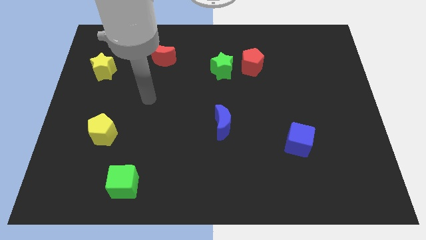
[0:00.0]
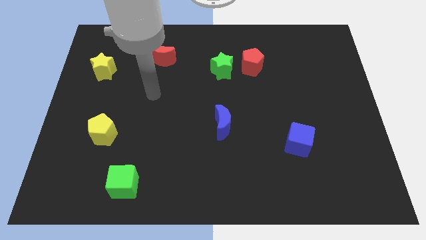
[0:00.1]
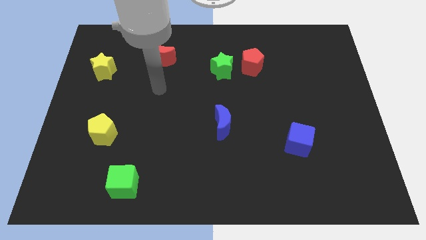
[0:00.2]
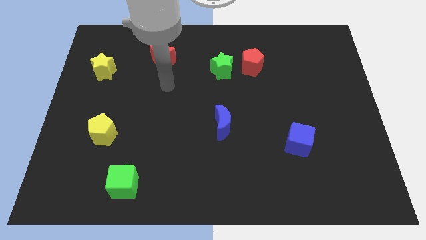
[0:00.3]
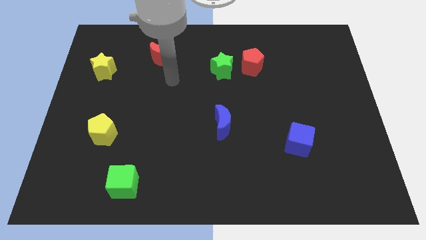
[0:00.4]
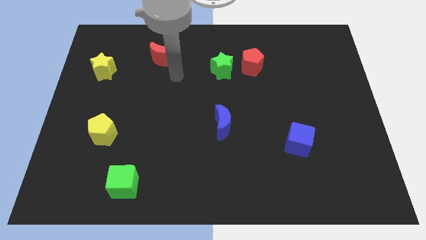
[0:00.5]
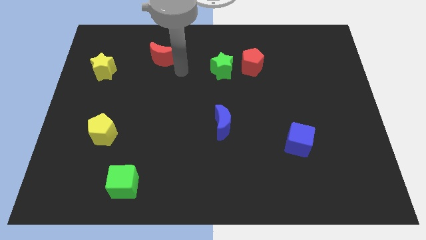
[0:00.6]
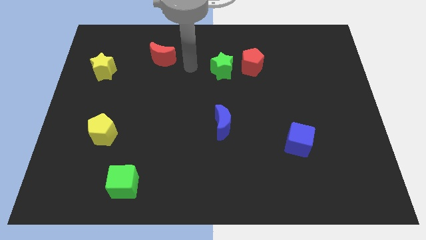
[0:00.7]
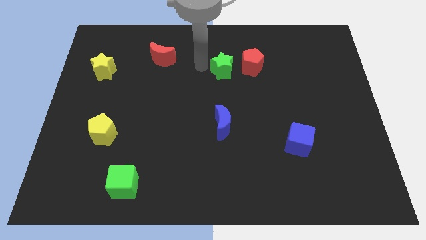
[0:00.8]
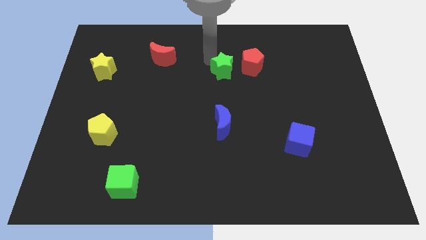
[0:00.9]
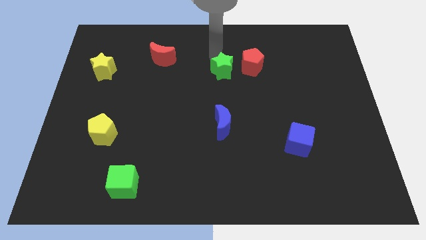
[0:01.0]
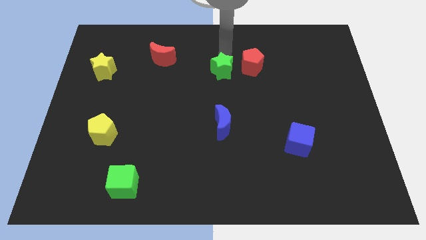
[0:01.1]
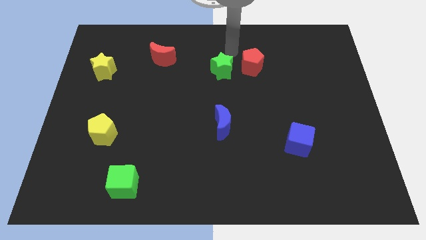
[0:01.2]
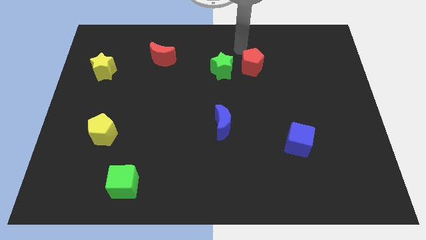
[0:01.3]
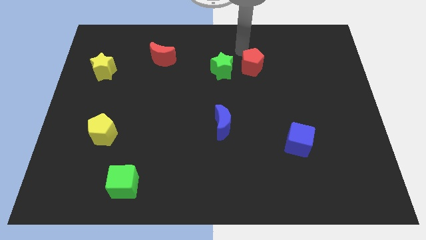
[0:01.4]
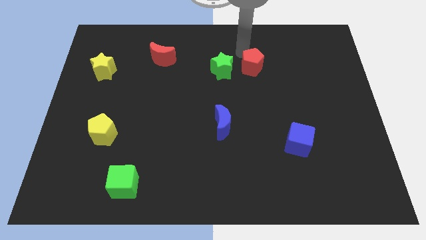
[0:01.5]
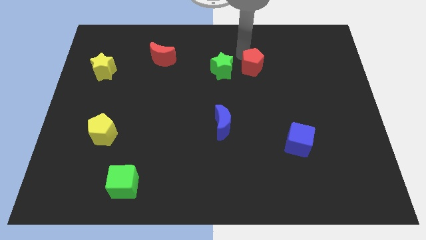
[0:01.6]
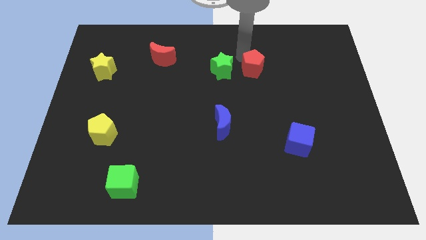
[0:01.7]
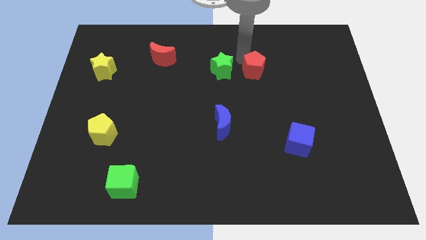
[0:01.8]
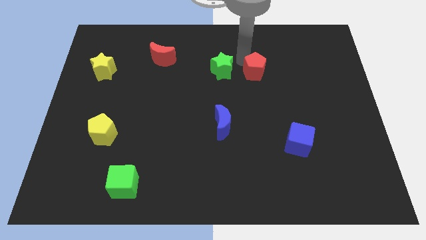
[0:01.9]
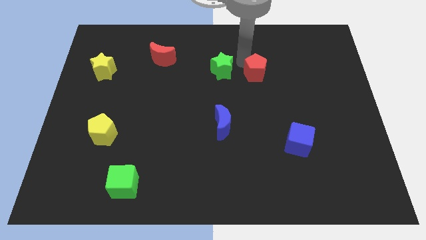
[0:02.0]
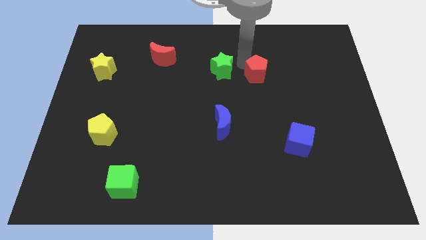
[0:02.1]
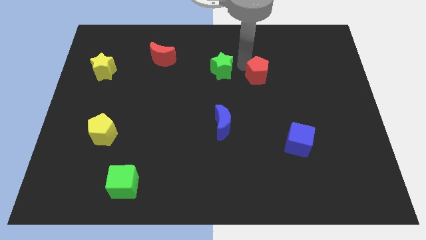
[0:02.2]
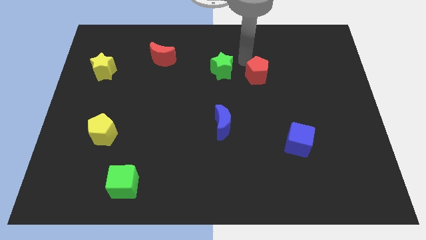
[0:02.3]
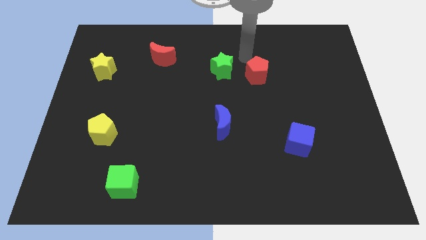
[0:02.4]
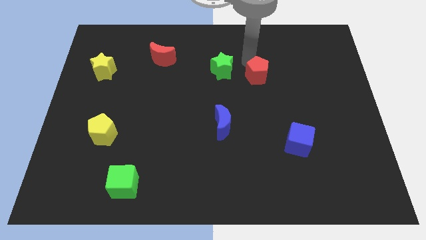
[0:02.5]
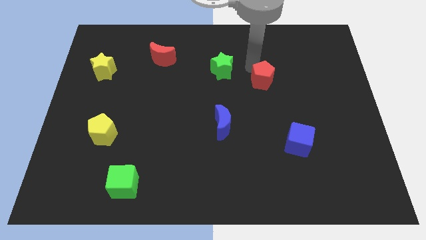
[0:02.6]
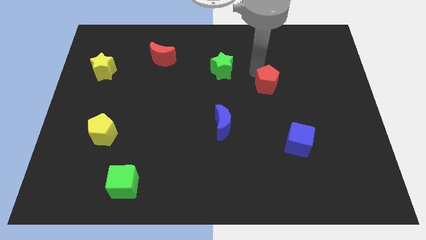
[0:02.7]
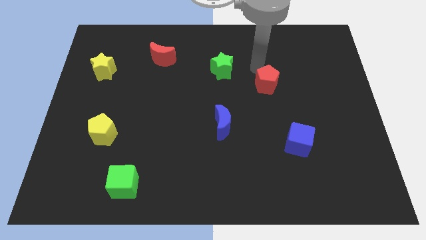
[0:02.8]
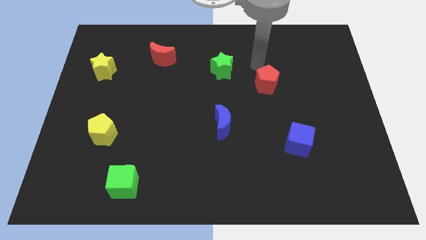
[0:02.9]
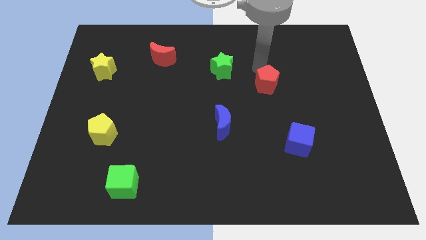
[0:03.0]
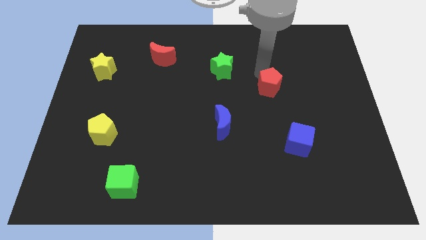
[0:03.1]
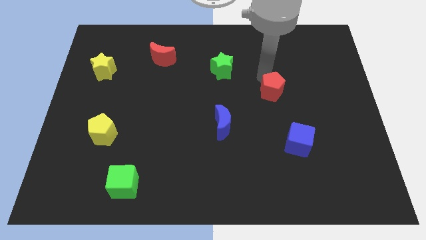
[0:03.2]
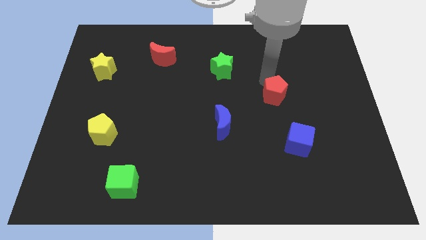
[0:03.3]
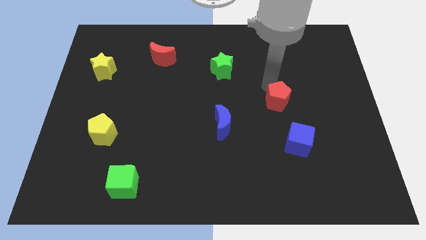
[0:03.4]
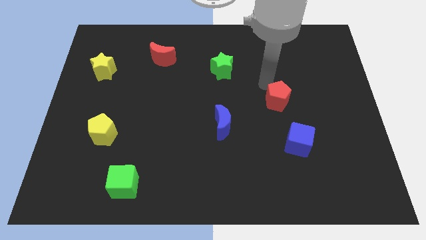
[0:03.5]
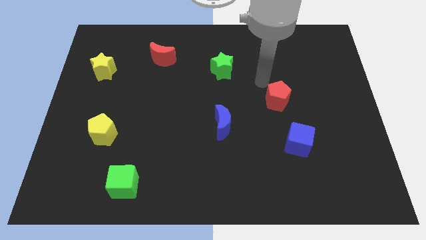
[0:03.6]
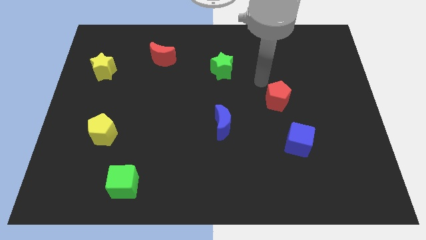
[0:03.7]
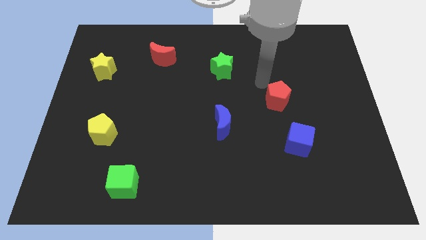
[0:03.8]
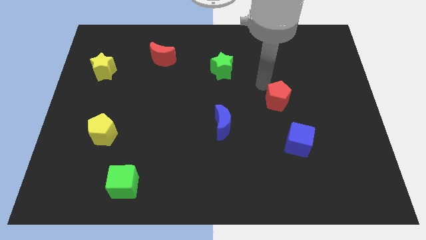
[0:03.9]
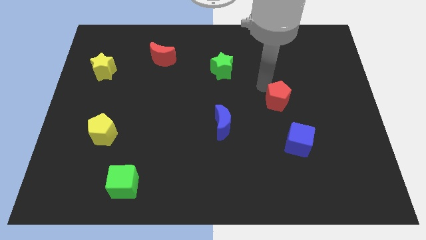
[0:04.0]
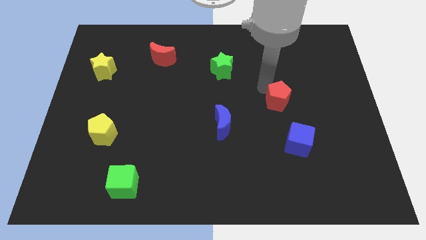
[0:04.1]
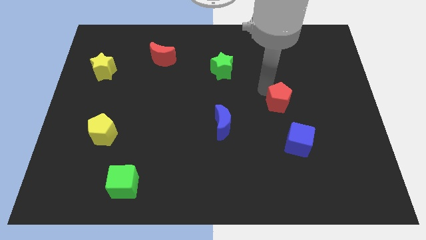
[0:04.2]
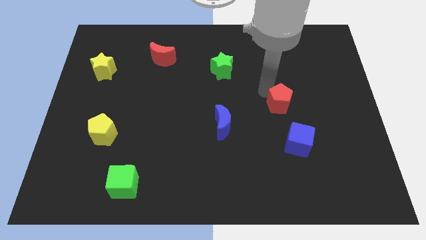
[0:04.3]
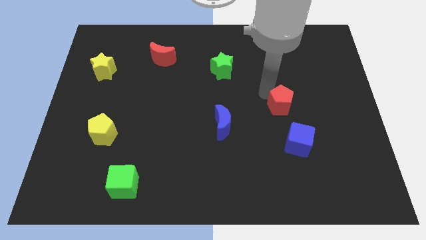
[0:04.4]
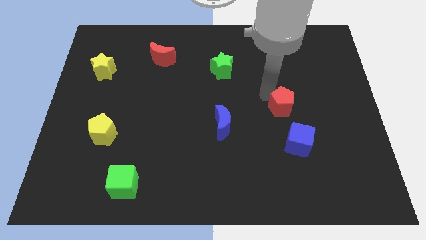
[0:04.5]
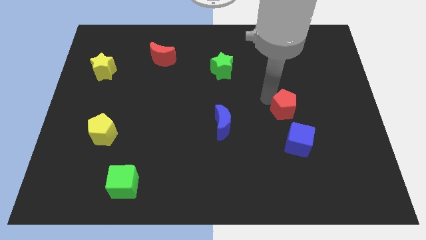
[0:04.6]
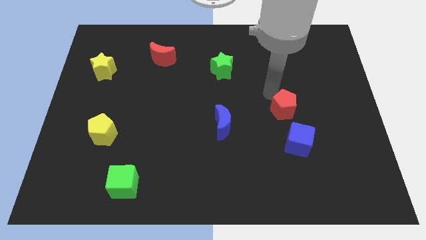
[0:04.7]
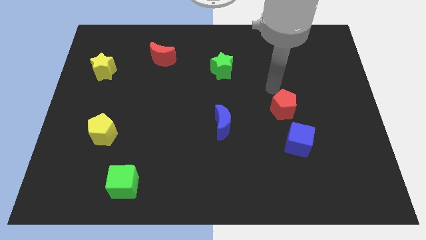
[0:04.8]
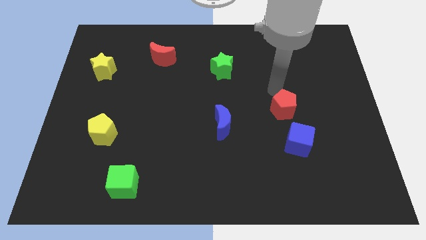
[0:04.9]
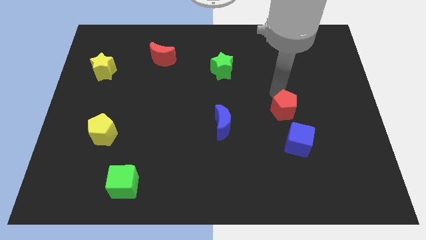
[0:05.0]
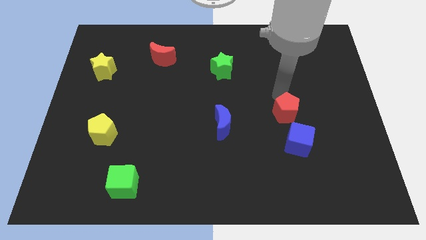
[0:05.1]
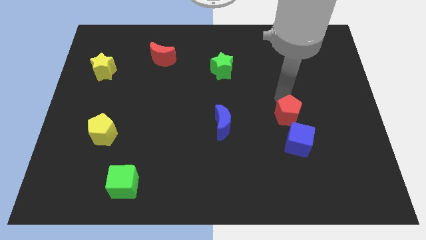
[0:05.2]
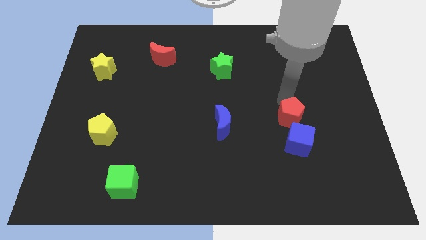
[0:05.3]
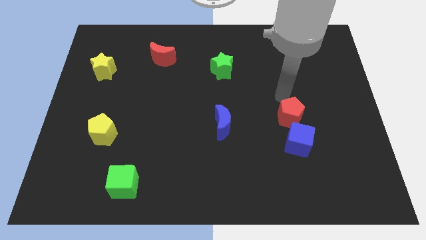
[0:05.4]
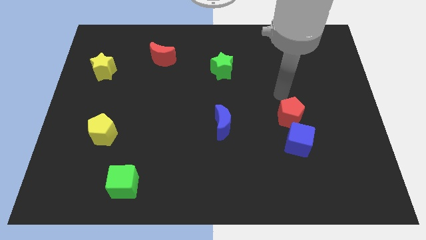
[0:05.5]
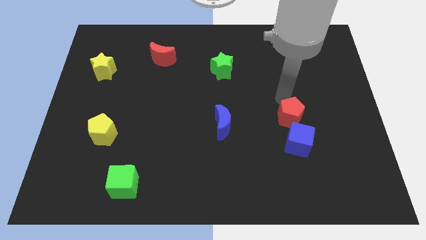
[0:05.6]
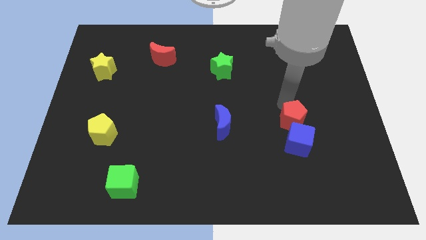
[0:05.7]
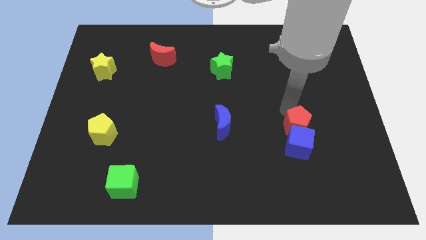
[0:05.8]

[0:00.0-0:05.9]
push the red pentagon next to the blue cube

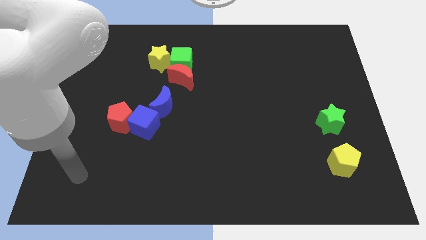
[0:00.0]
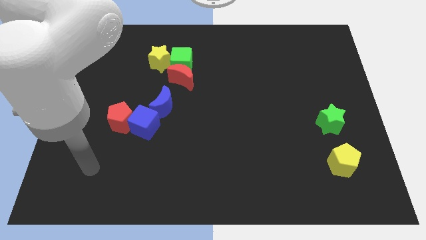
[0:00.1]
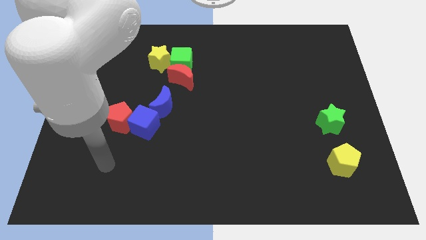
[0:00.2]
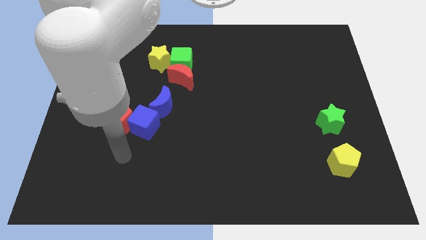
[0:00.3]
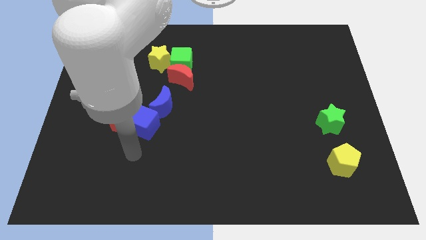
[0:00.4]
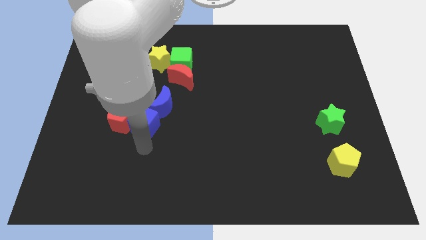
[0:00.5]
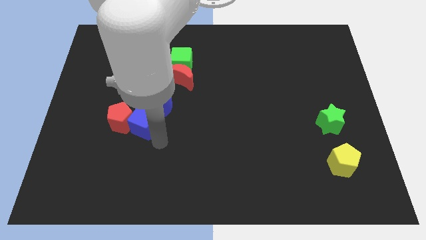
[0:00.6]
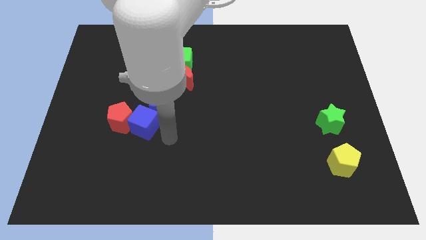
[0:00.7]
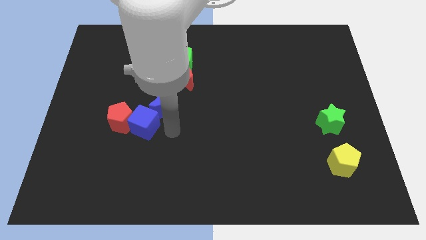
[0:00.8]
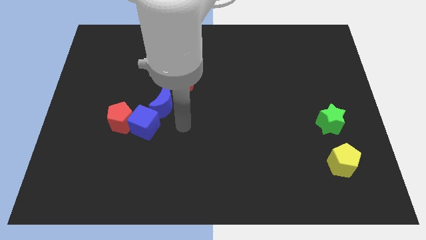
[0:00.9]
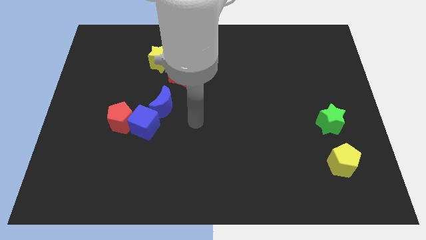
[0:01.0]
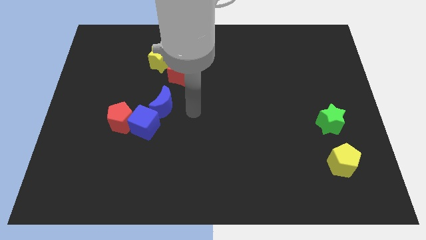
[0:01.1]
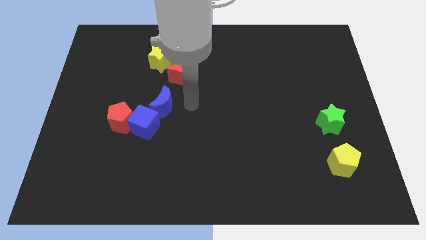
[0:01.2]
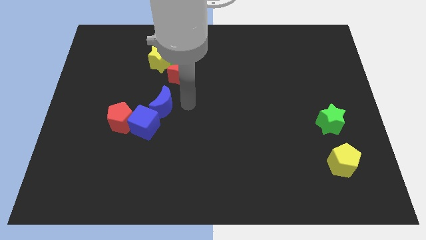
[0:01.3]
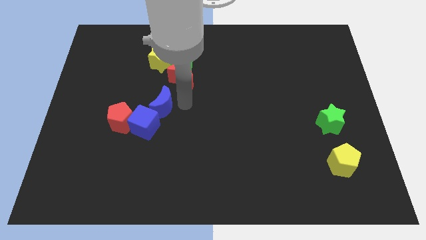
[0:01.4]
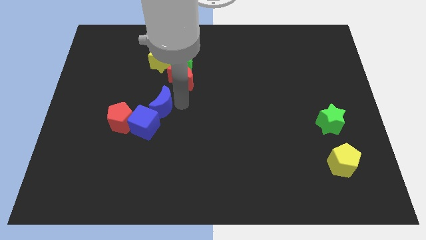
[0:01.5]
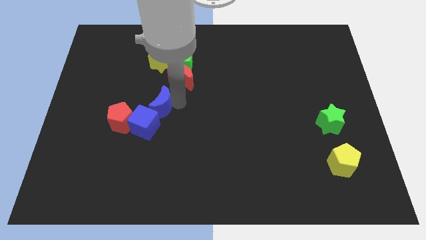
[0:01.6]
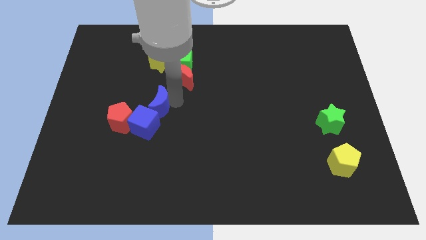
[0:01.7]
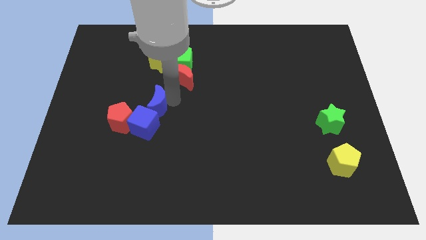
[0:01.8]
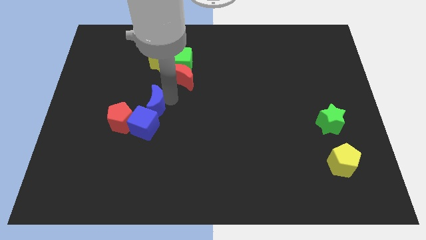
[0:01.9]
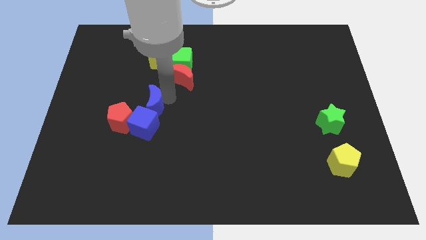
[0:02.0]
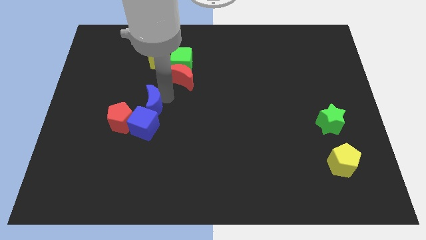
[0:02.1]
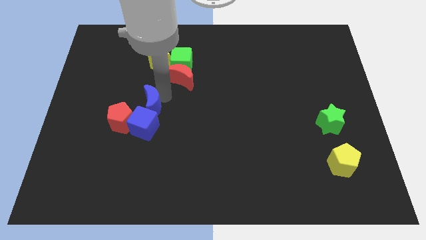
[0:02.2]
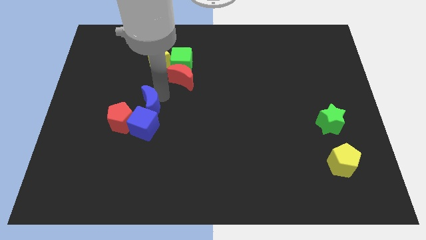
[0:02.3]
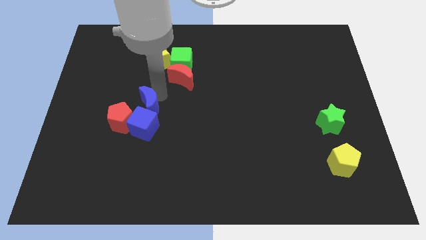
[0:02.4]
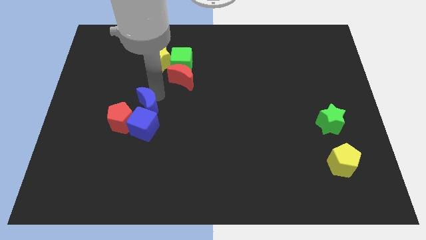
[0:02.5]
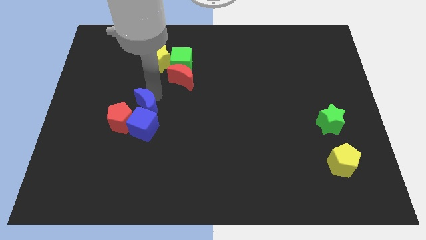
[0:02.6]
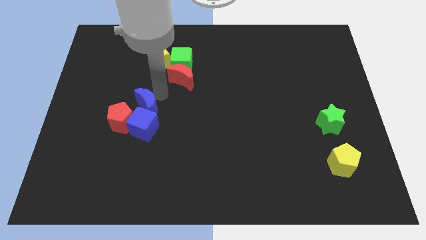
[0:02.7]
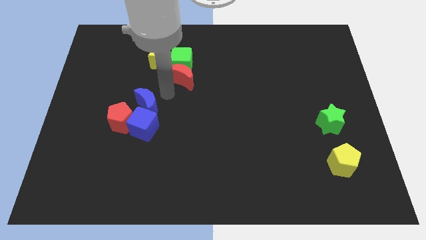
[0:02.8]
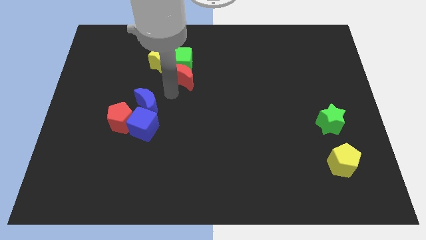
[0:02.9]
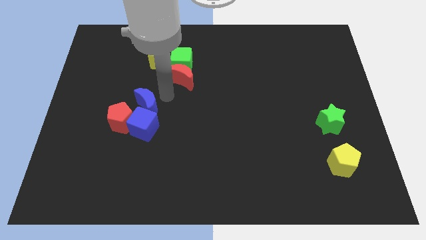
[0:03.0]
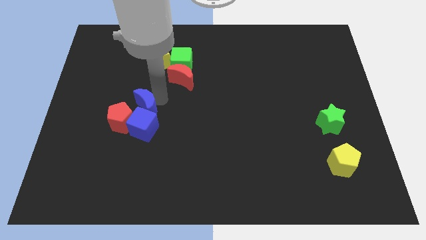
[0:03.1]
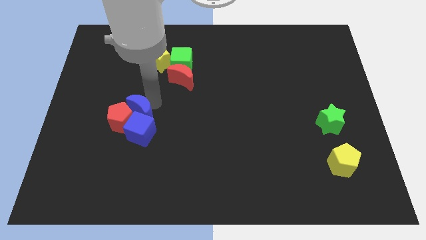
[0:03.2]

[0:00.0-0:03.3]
move the blue moon next to the red pentagon
